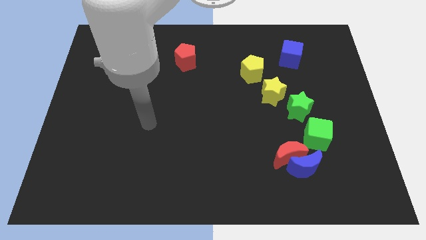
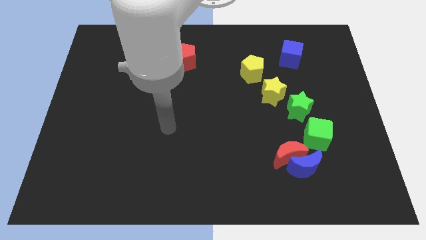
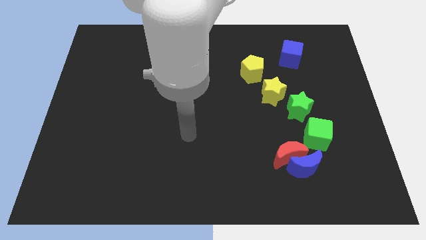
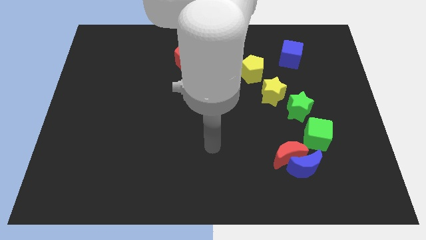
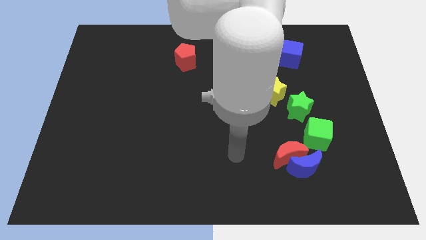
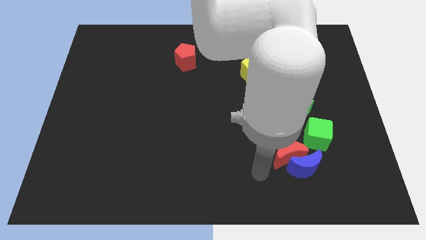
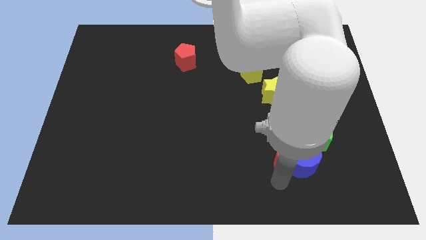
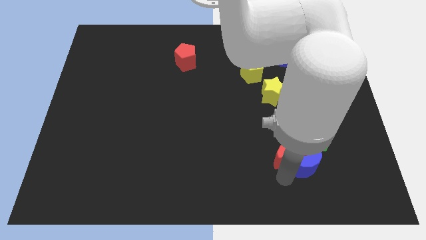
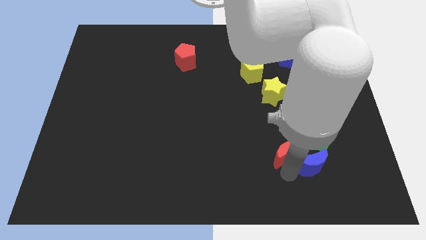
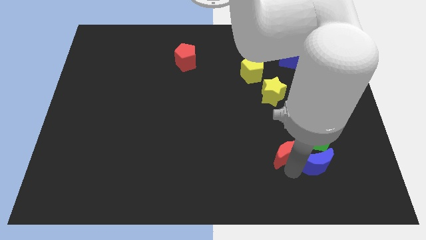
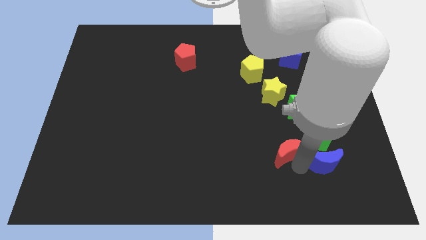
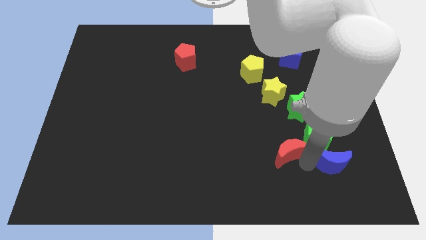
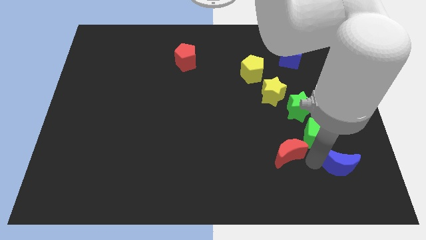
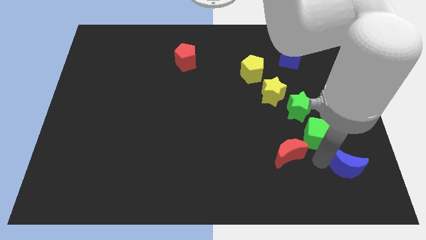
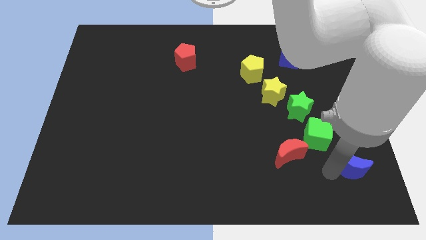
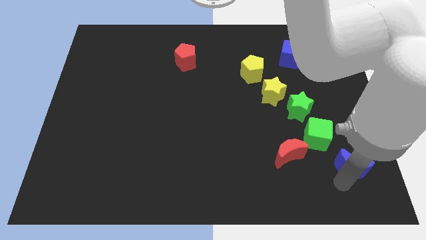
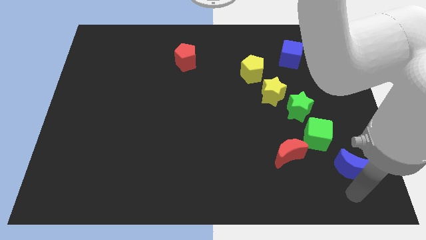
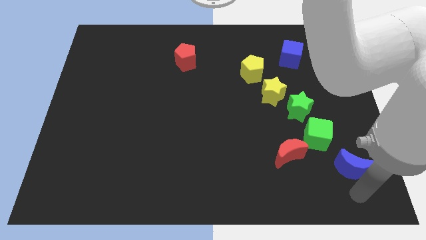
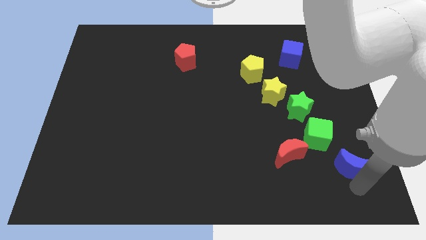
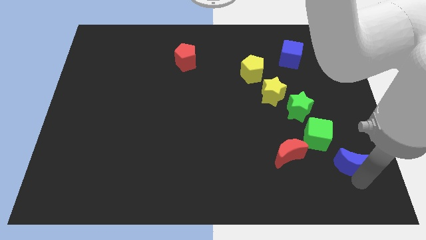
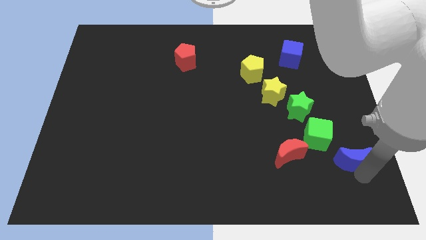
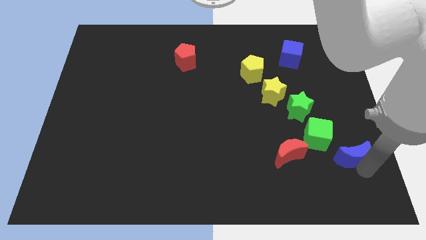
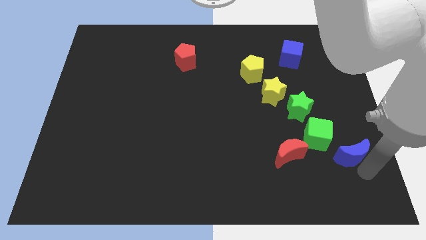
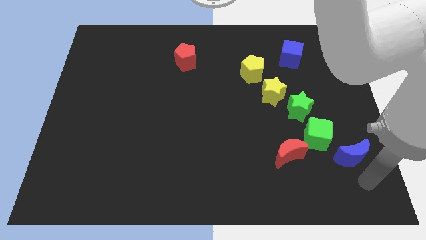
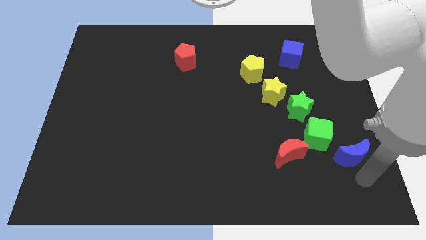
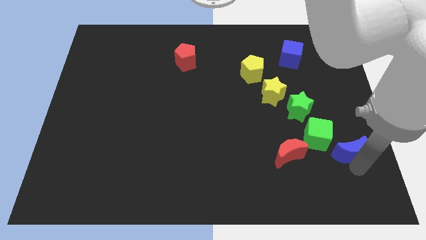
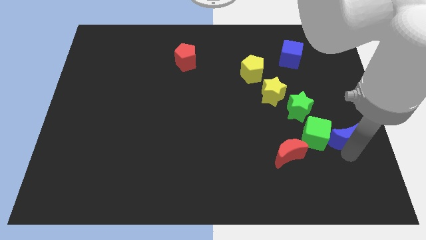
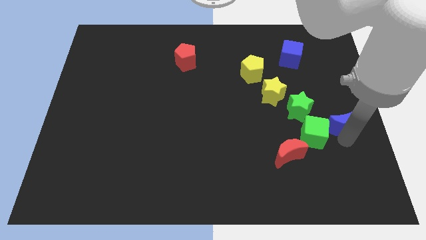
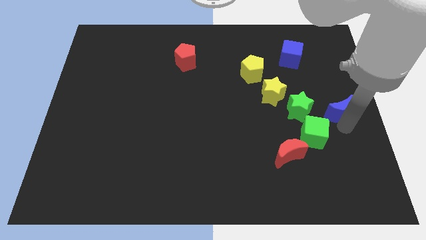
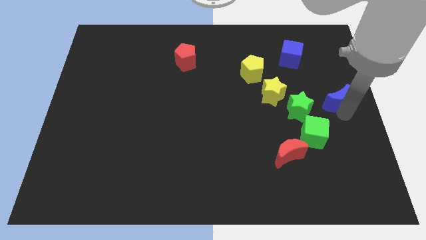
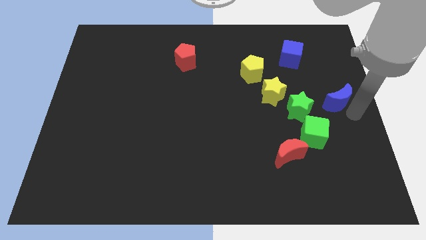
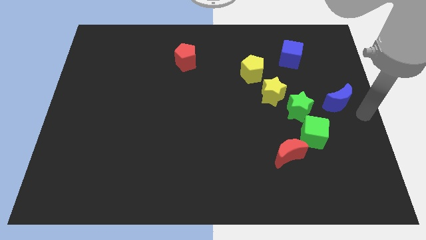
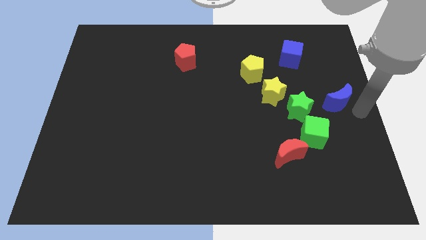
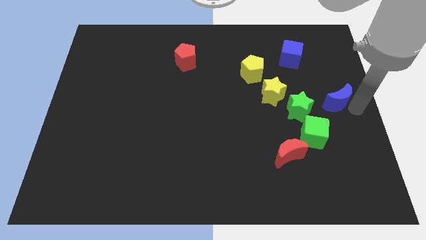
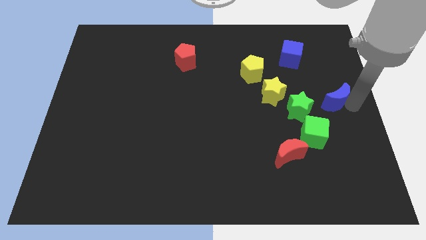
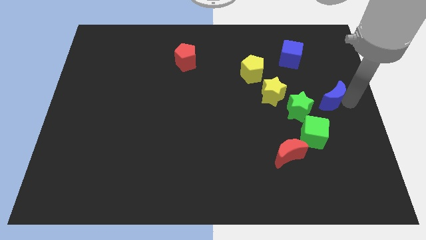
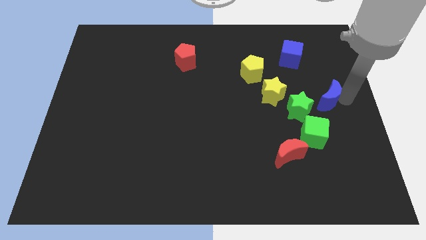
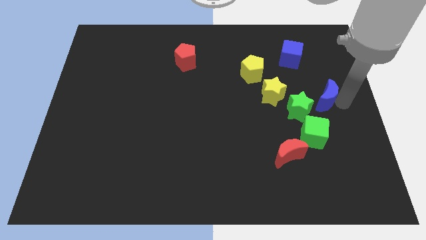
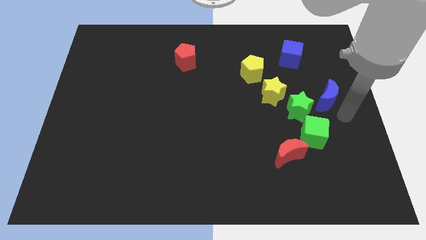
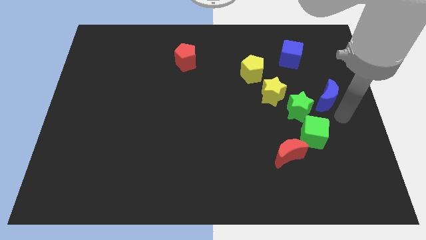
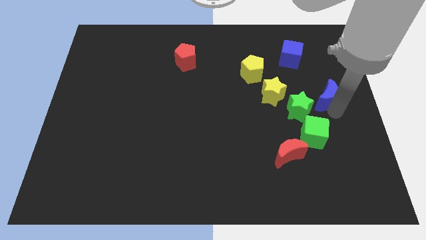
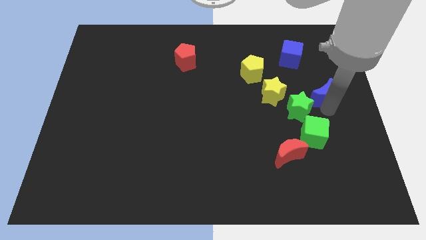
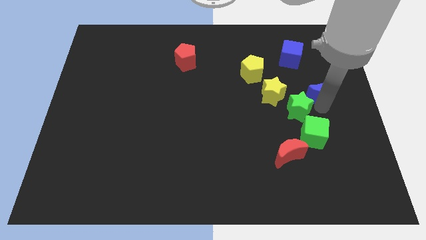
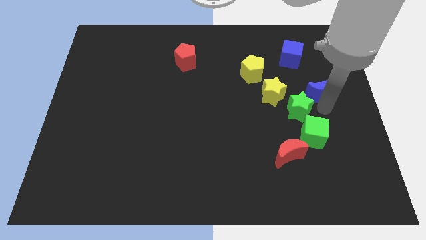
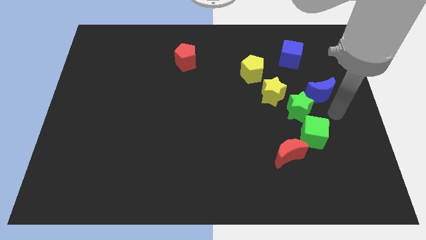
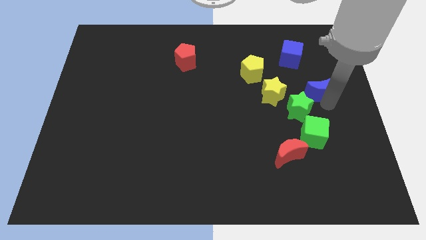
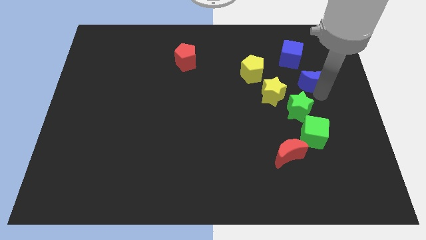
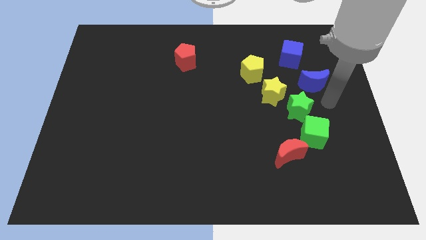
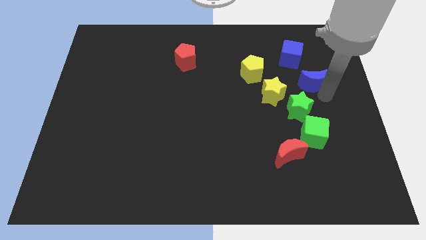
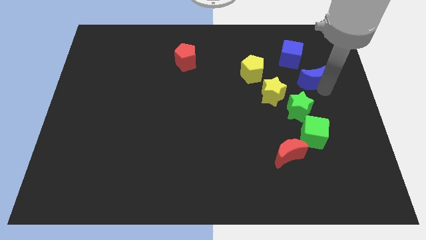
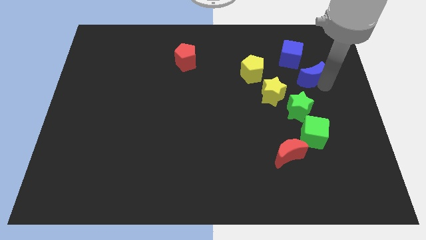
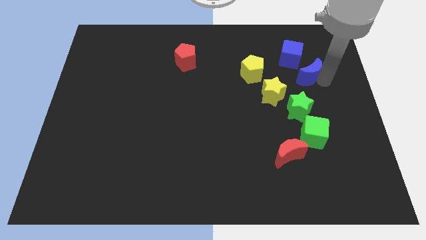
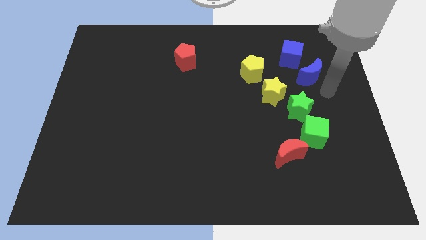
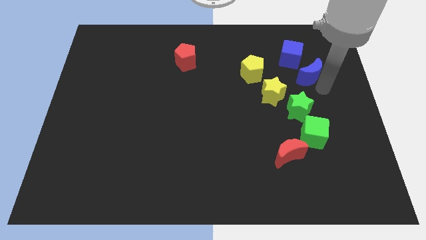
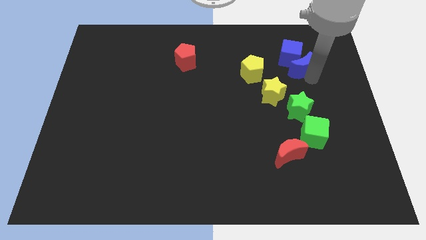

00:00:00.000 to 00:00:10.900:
put the blue moon next to the blue cube

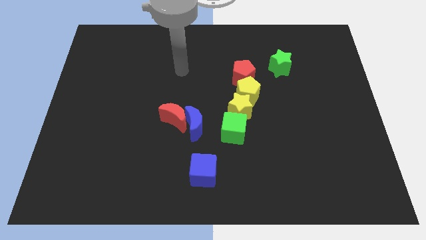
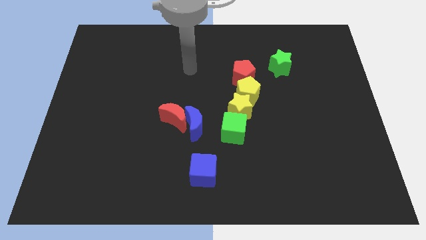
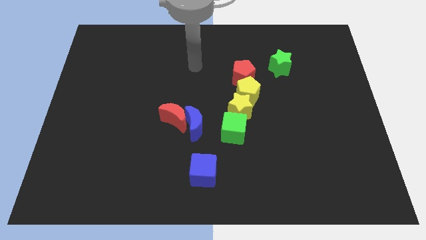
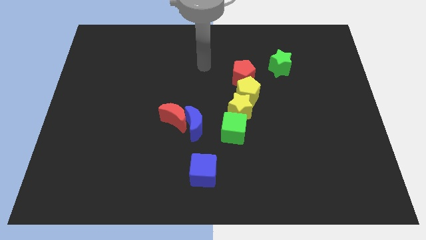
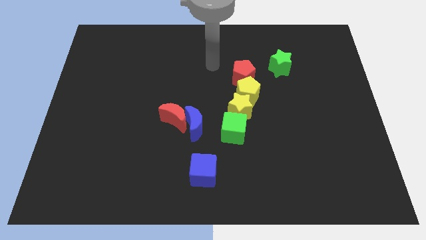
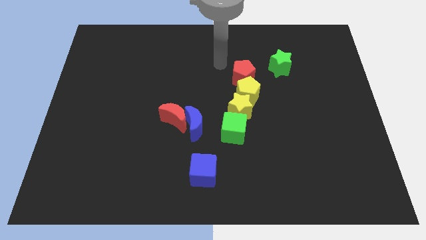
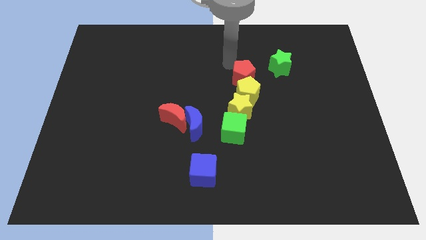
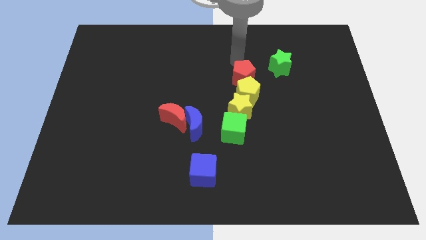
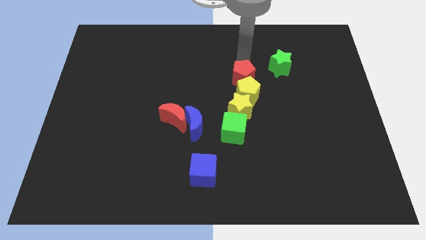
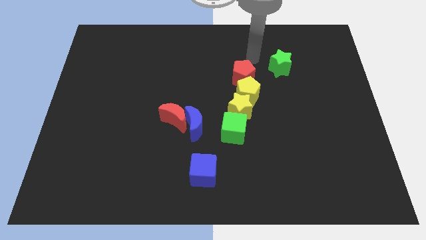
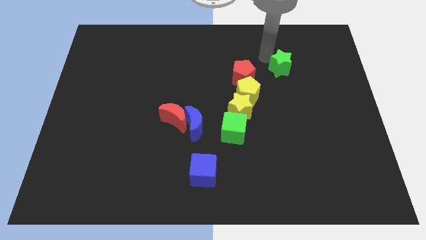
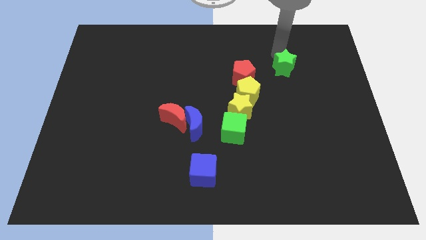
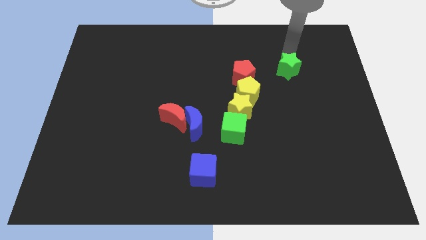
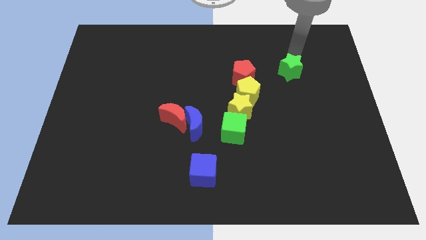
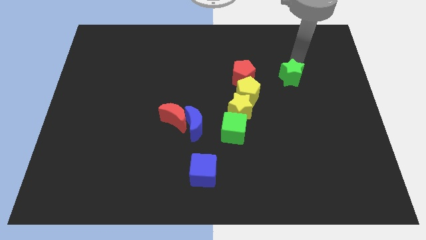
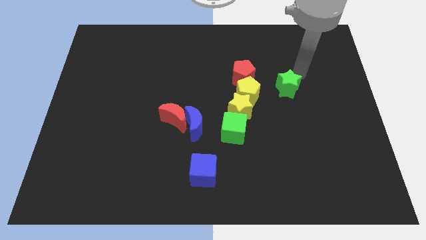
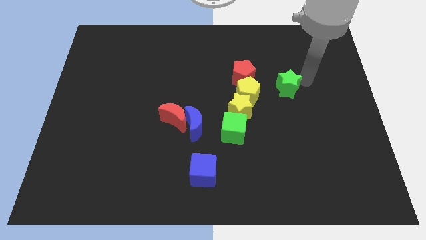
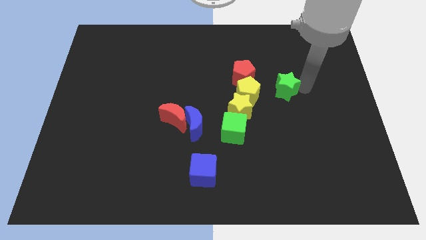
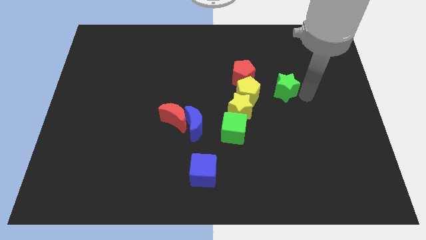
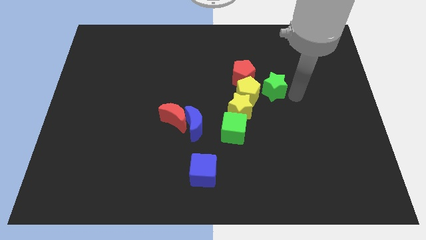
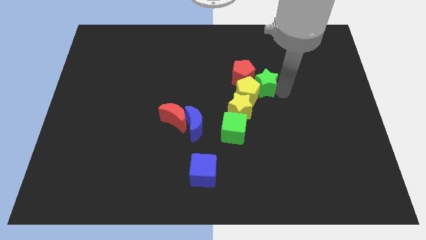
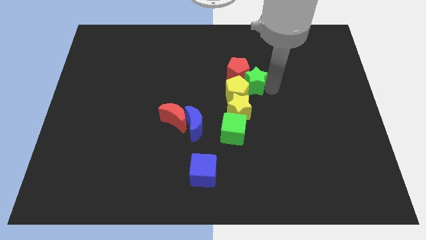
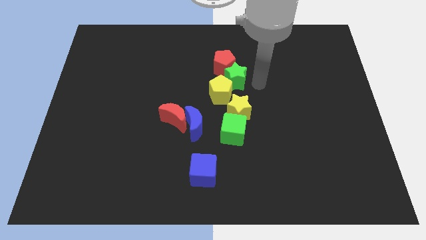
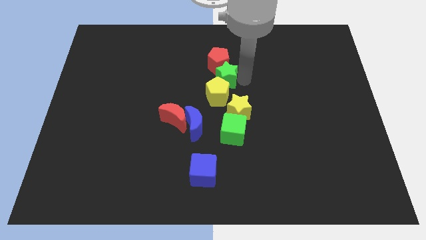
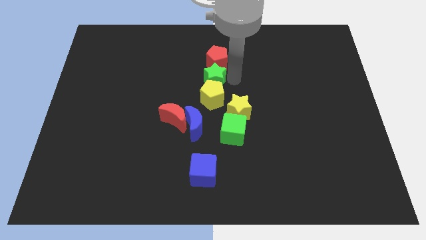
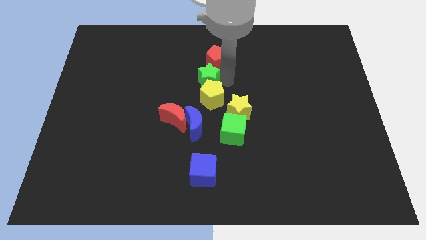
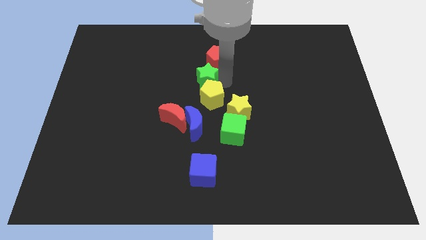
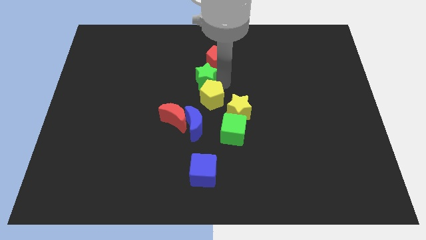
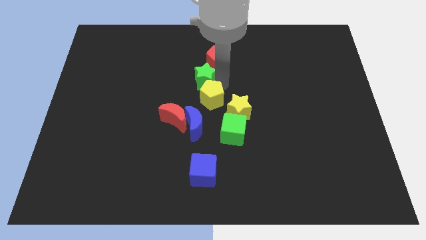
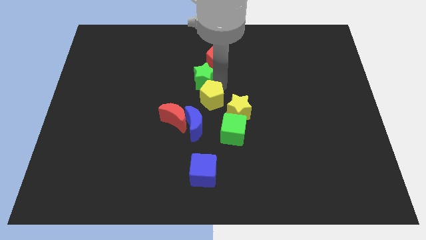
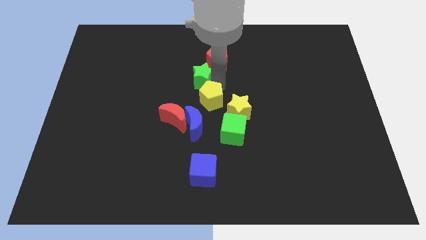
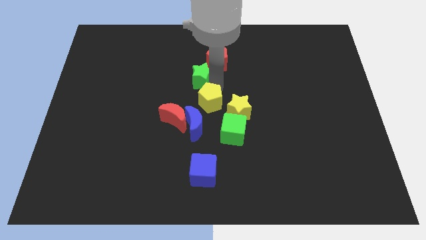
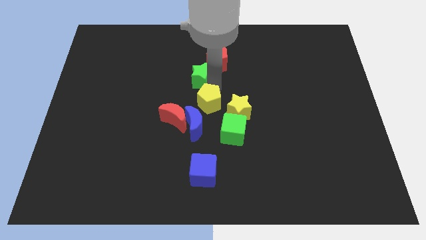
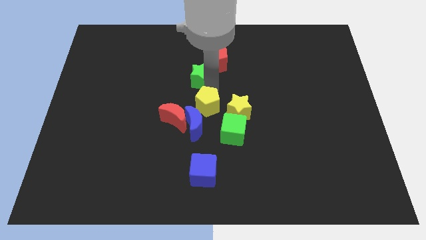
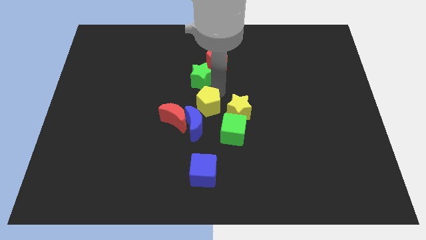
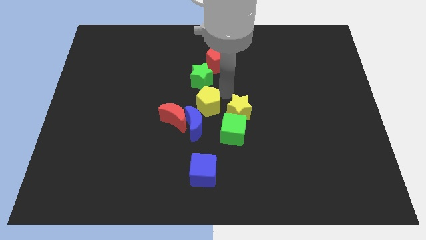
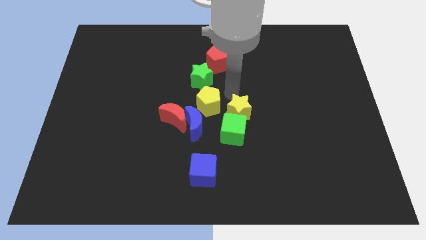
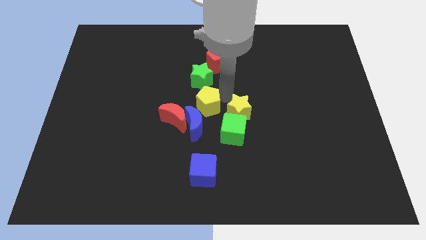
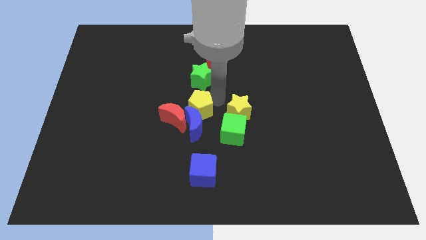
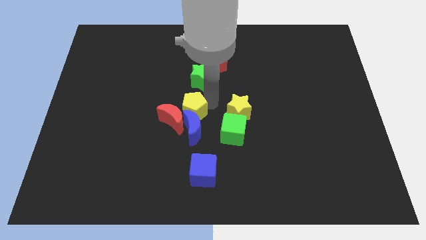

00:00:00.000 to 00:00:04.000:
slide the yellow pentagon next to the red moon
